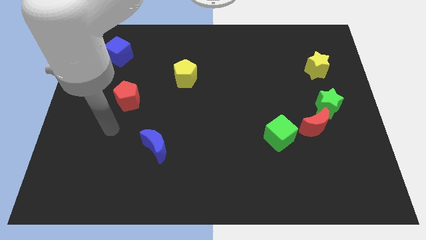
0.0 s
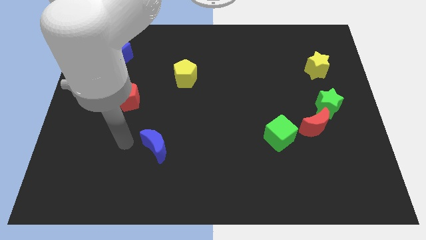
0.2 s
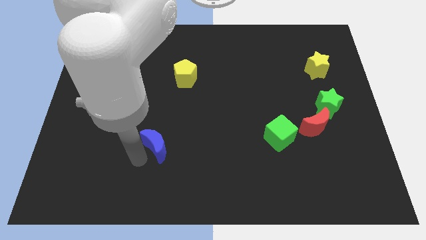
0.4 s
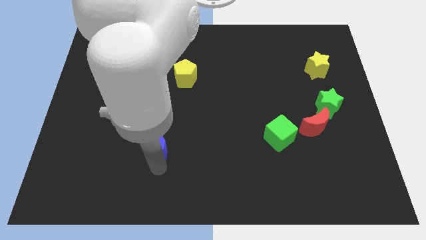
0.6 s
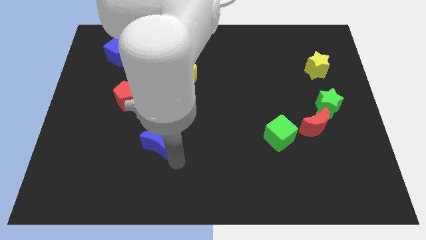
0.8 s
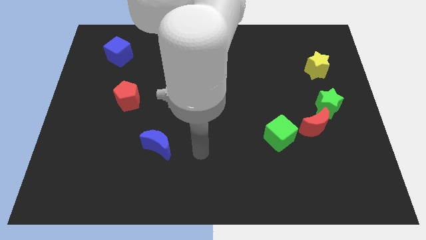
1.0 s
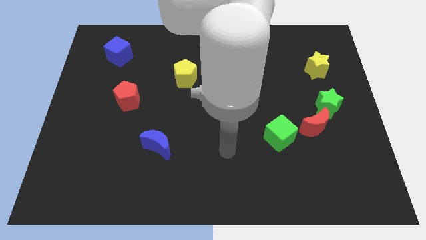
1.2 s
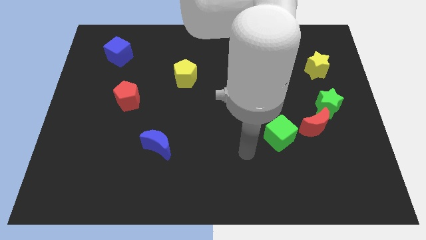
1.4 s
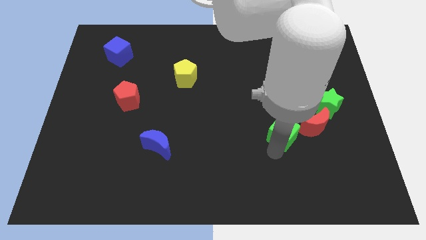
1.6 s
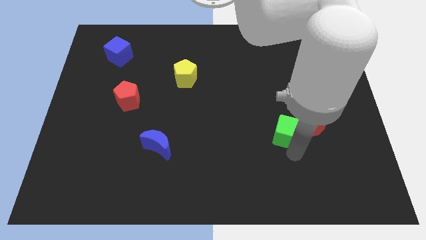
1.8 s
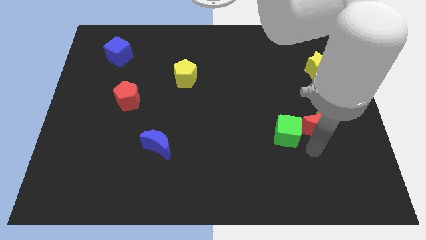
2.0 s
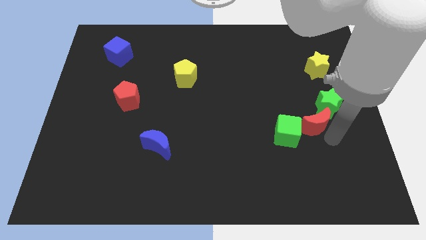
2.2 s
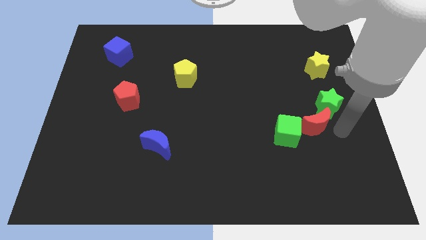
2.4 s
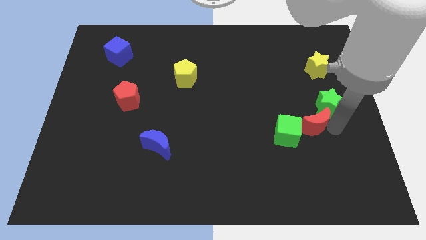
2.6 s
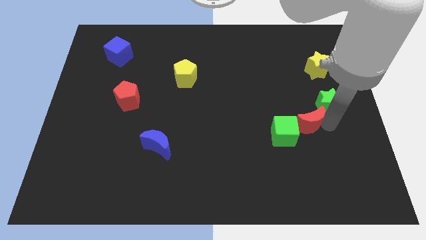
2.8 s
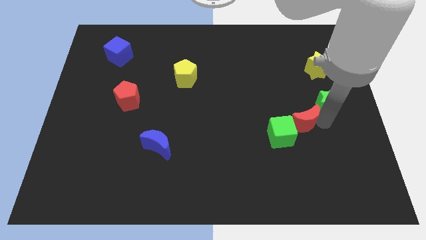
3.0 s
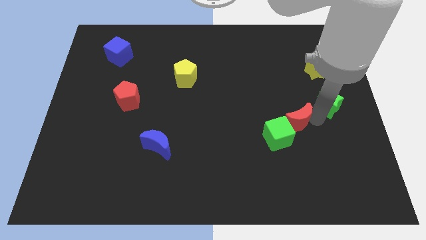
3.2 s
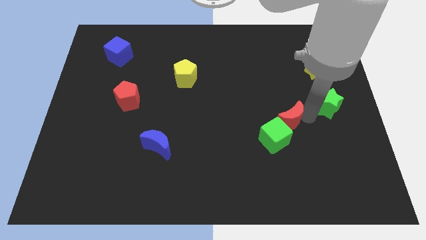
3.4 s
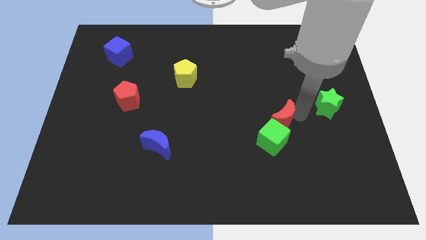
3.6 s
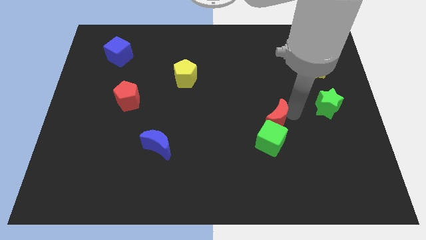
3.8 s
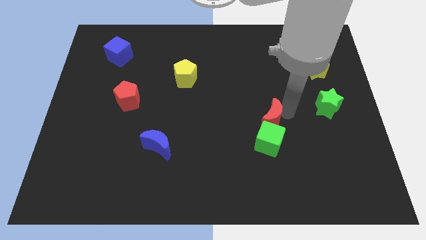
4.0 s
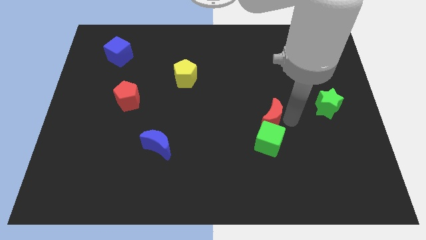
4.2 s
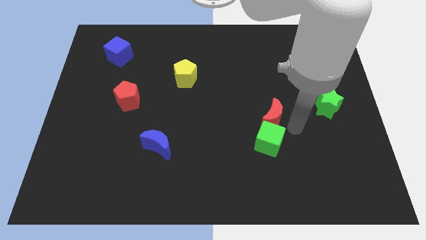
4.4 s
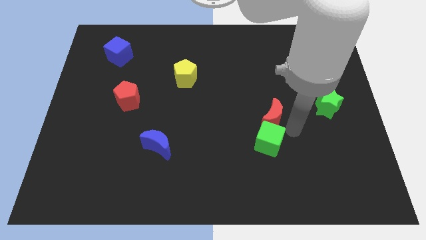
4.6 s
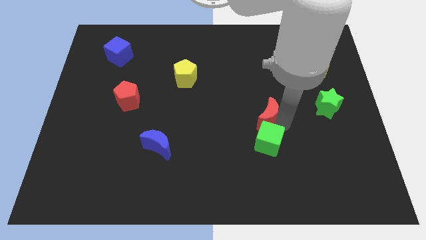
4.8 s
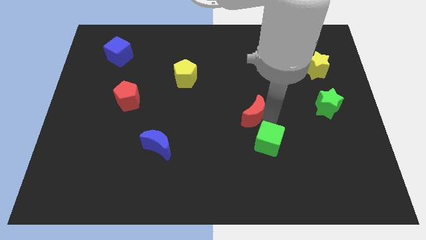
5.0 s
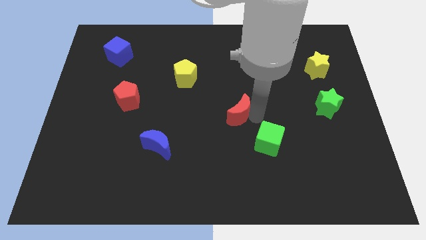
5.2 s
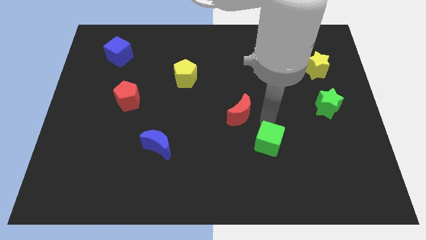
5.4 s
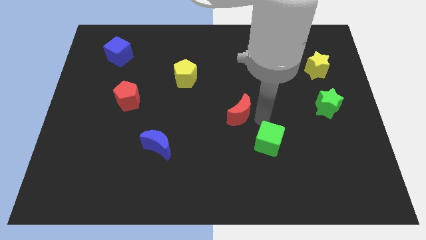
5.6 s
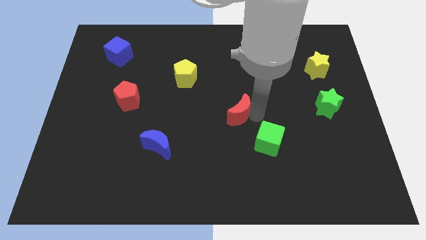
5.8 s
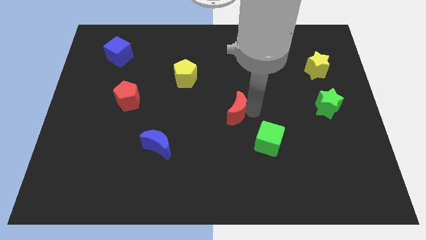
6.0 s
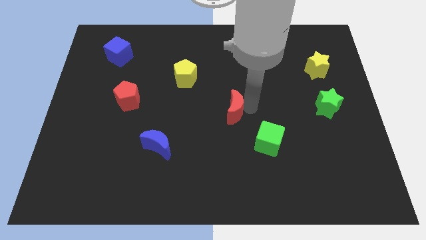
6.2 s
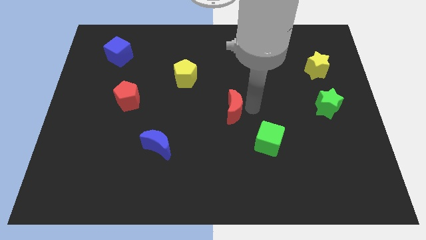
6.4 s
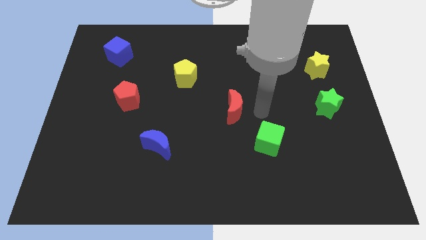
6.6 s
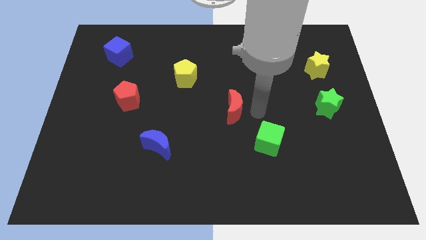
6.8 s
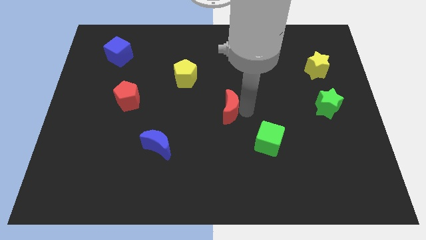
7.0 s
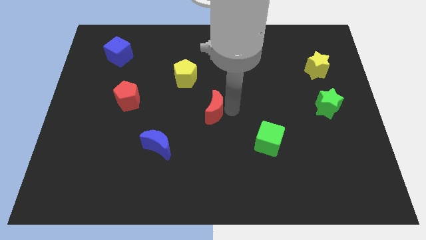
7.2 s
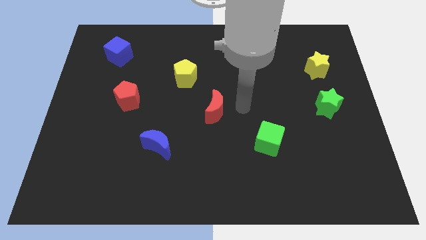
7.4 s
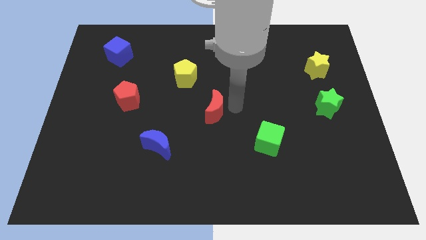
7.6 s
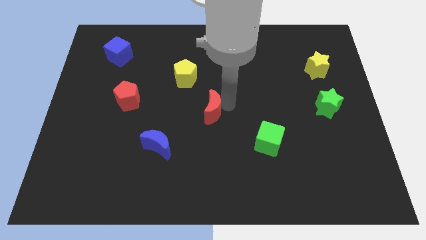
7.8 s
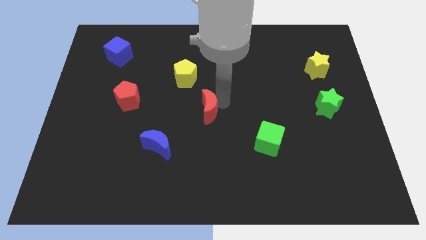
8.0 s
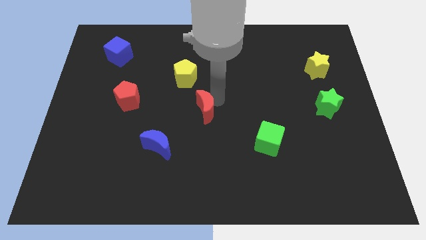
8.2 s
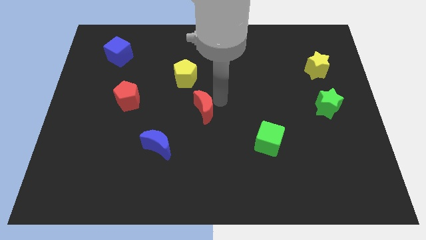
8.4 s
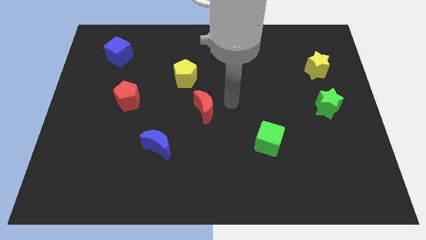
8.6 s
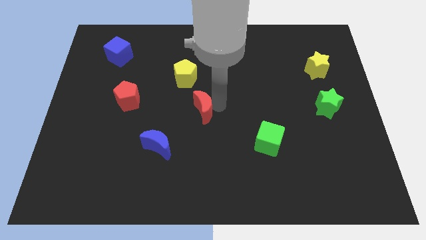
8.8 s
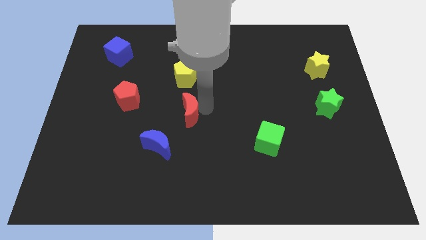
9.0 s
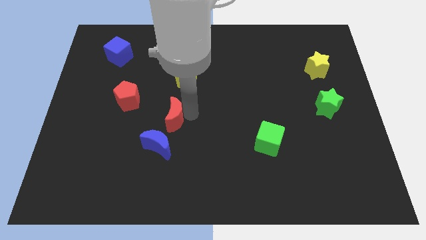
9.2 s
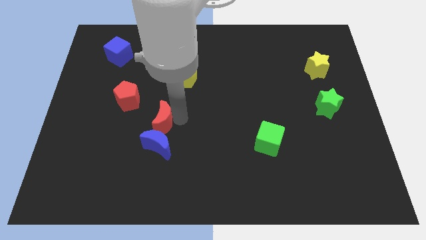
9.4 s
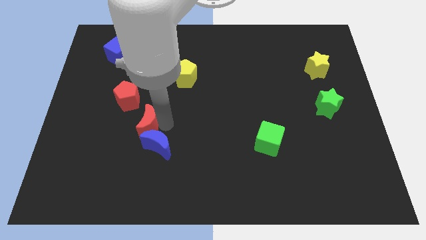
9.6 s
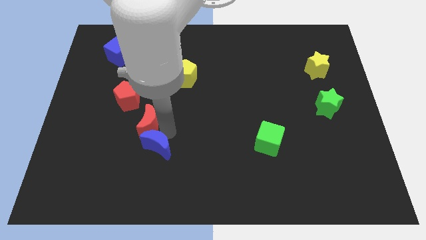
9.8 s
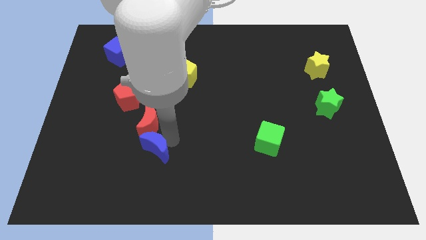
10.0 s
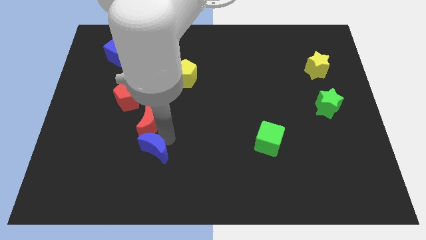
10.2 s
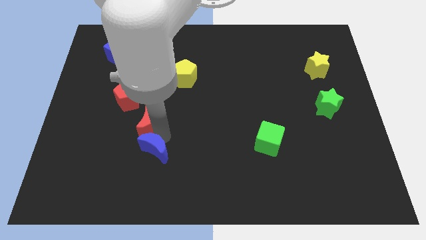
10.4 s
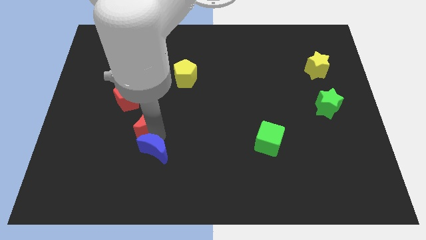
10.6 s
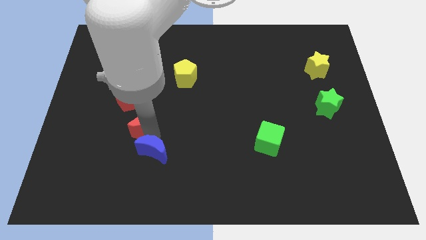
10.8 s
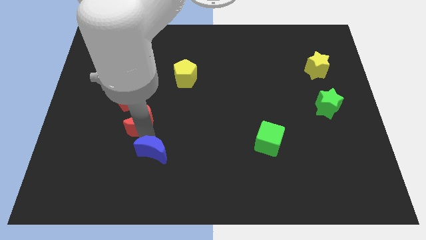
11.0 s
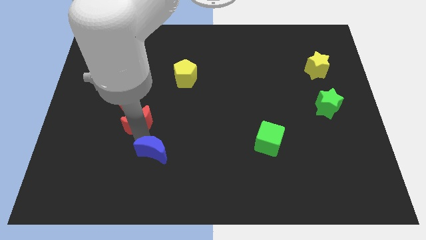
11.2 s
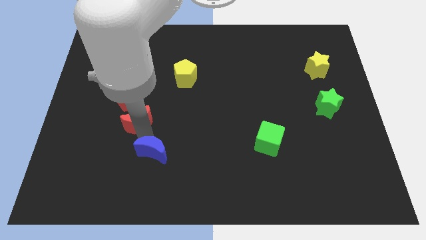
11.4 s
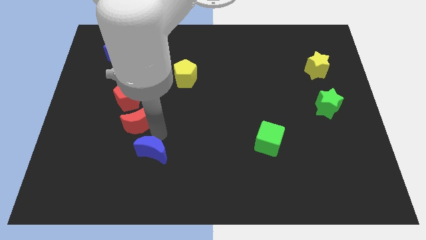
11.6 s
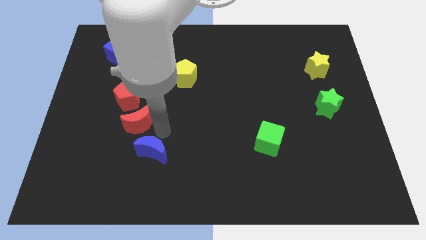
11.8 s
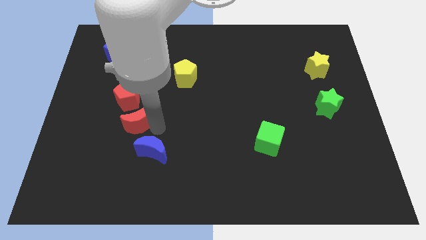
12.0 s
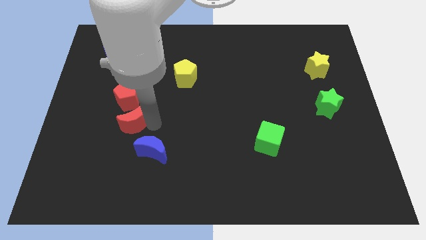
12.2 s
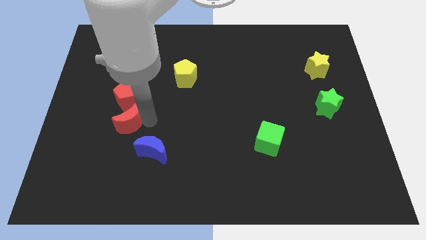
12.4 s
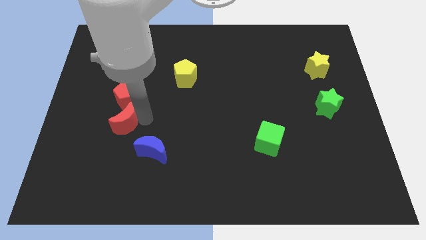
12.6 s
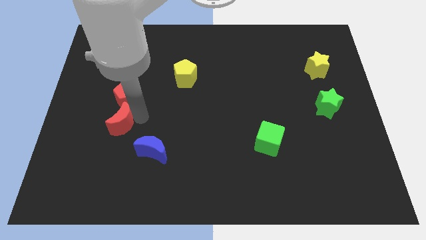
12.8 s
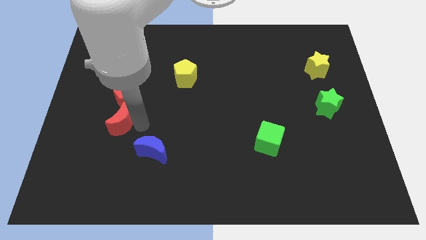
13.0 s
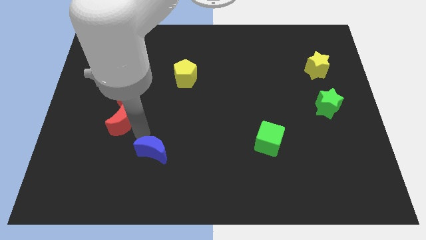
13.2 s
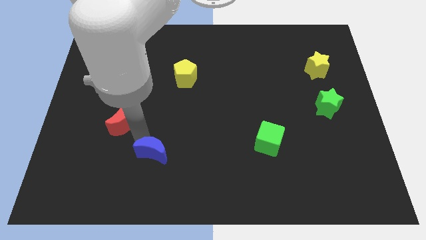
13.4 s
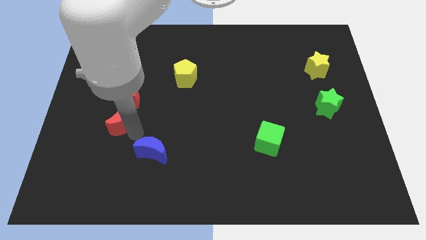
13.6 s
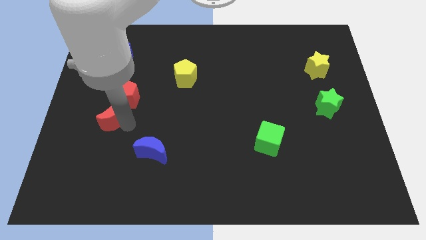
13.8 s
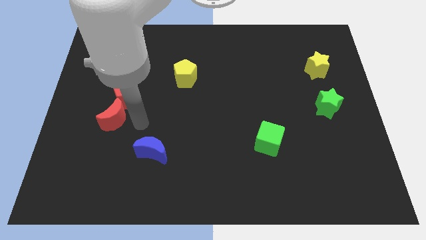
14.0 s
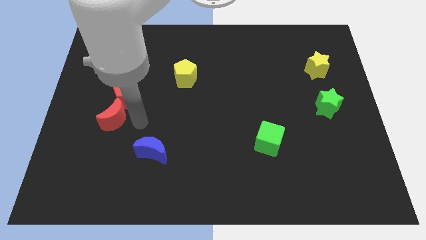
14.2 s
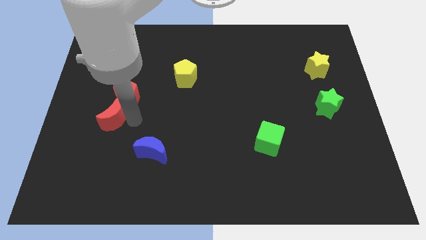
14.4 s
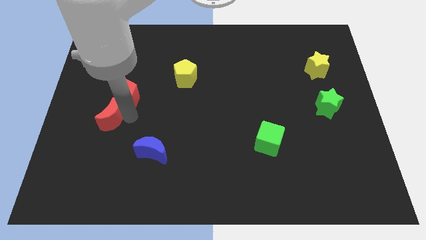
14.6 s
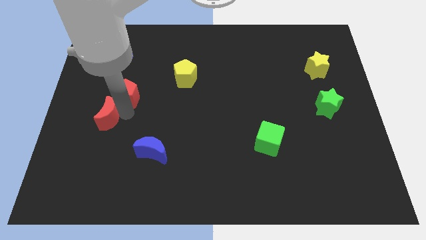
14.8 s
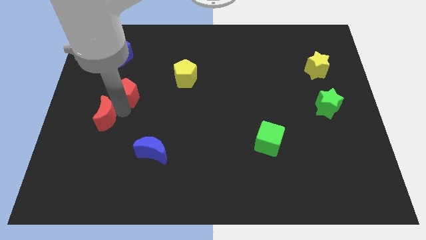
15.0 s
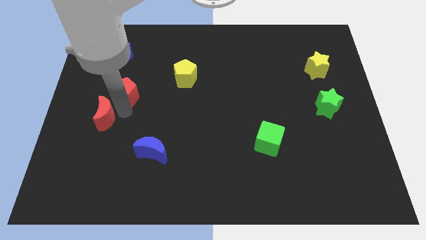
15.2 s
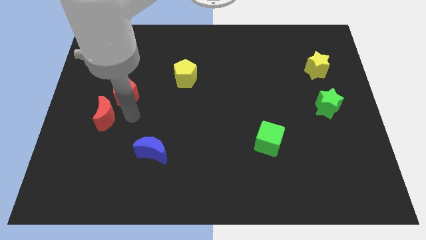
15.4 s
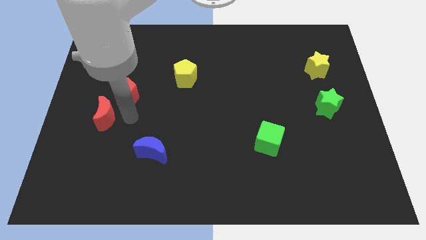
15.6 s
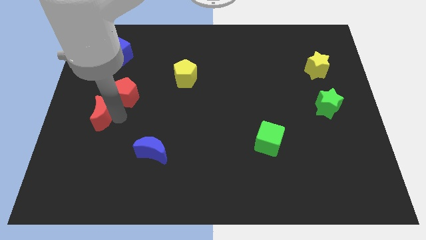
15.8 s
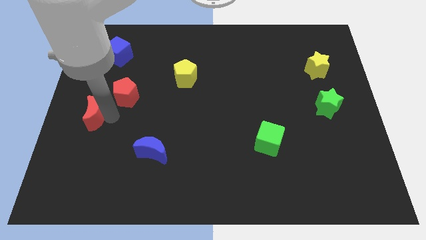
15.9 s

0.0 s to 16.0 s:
move the red moon to the left side of the board
